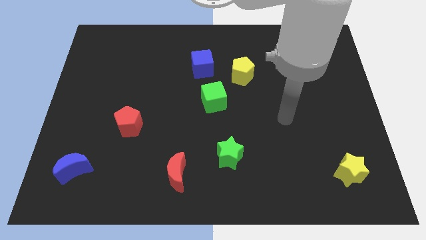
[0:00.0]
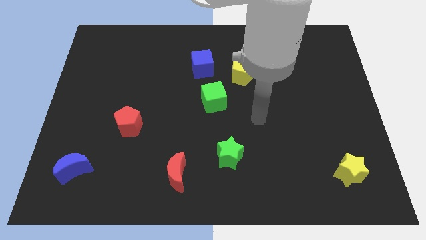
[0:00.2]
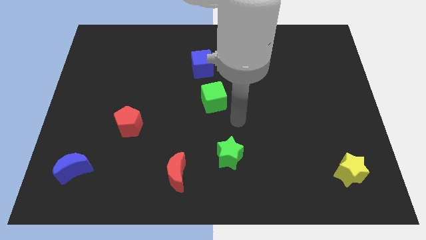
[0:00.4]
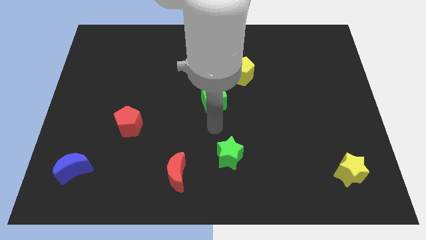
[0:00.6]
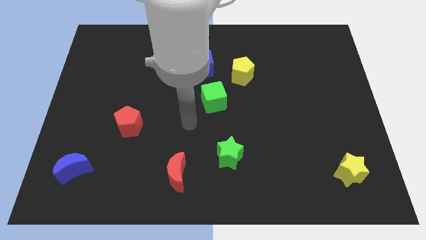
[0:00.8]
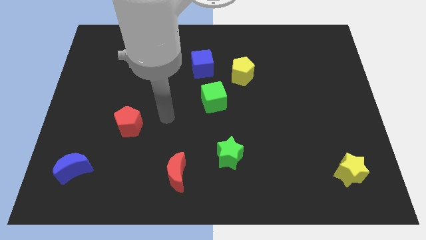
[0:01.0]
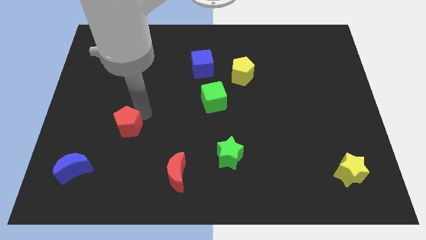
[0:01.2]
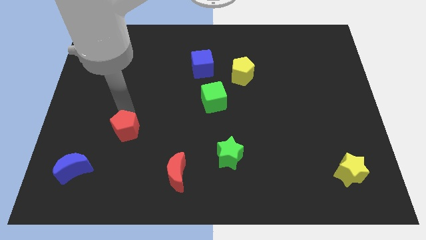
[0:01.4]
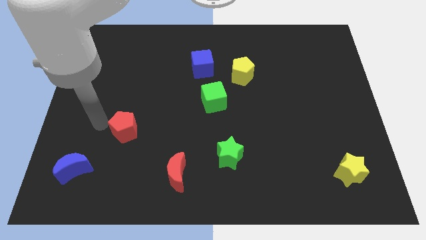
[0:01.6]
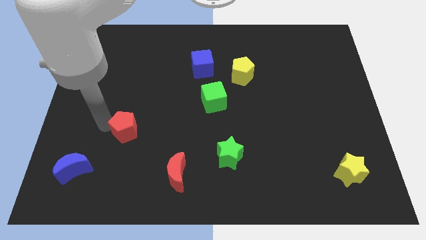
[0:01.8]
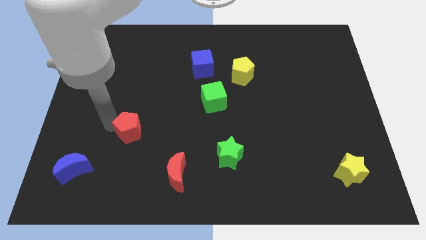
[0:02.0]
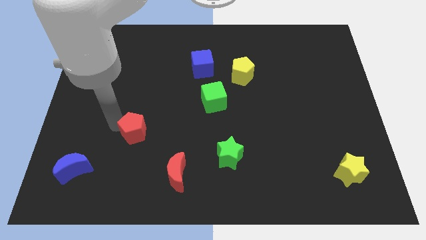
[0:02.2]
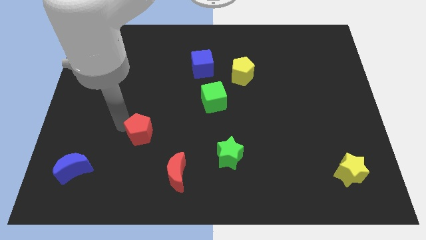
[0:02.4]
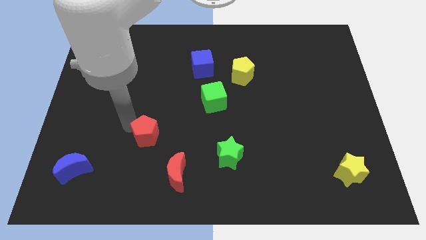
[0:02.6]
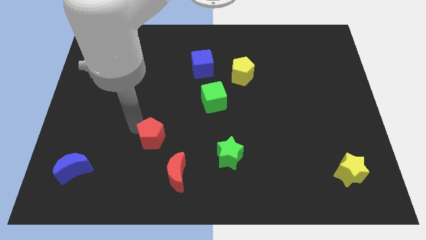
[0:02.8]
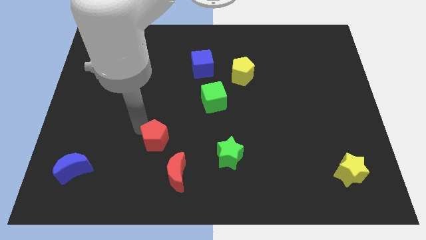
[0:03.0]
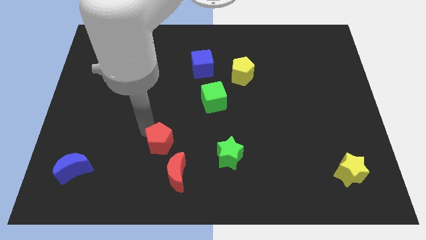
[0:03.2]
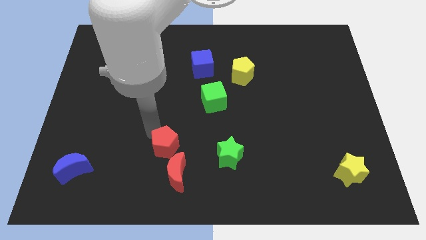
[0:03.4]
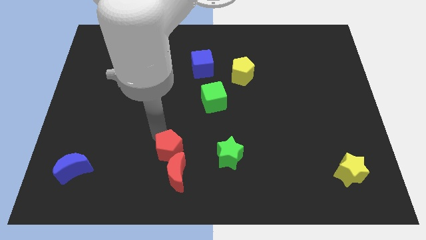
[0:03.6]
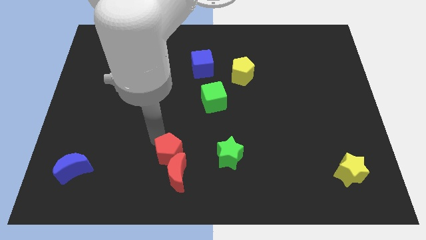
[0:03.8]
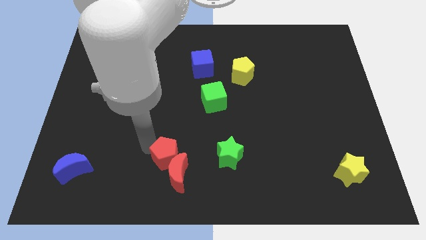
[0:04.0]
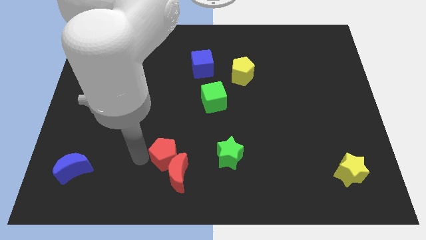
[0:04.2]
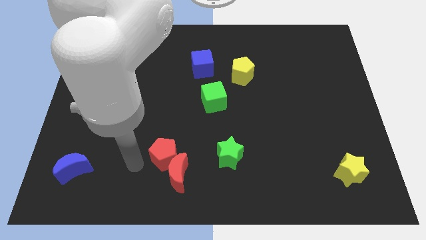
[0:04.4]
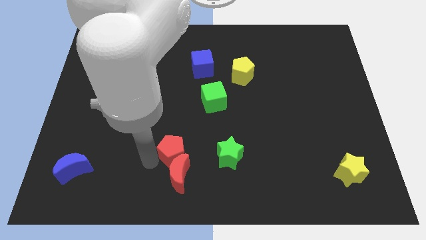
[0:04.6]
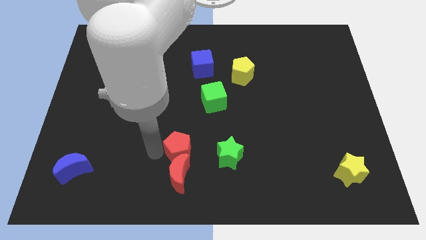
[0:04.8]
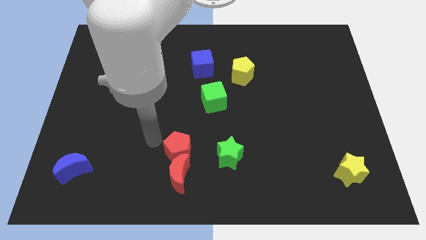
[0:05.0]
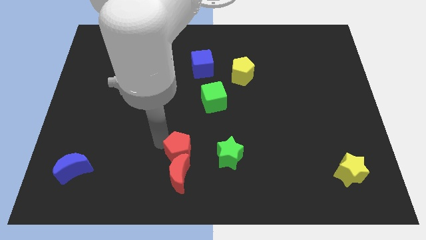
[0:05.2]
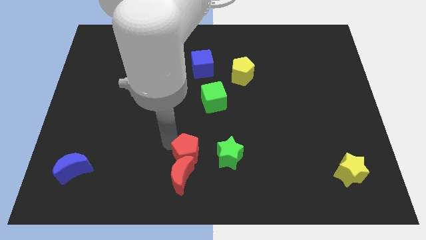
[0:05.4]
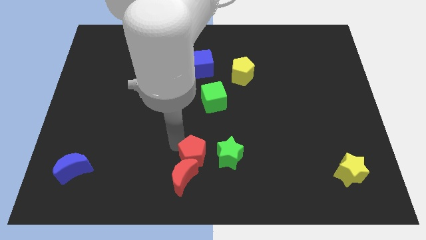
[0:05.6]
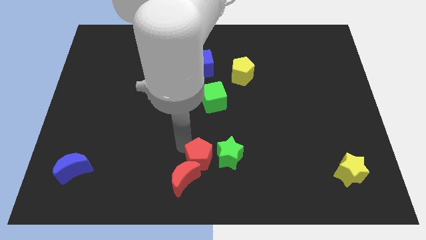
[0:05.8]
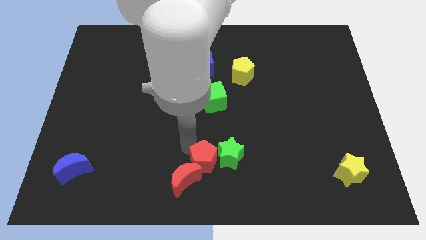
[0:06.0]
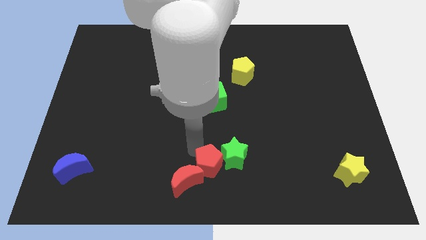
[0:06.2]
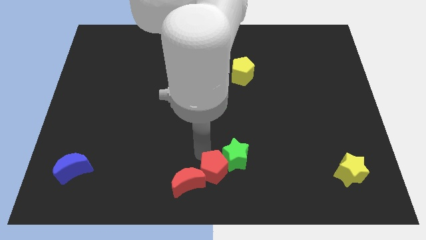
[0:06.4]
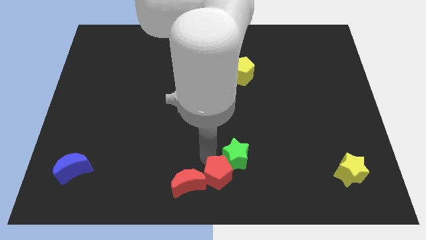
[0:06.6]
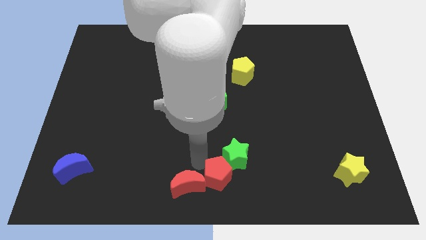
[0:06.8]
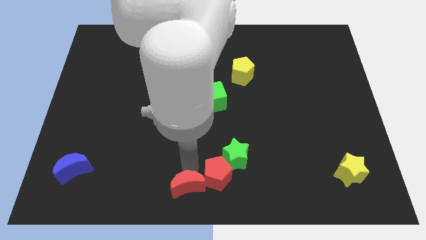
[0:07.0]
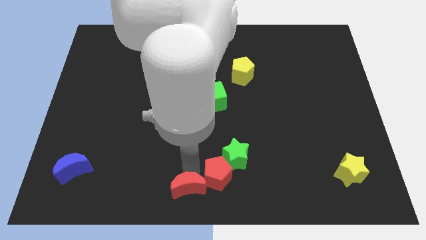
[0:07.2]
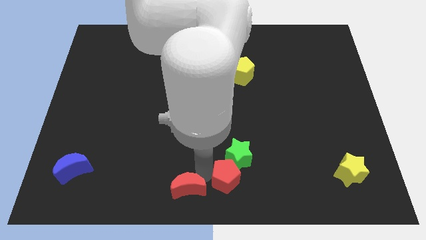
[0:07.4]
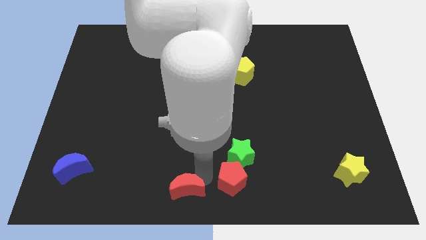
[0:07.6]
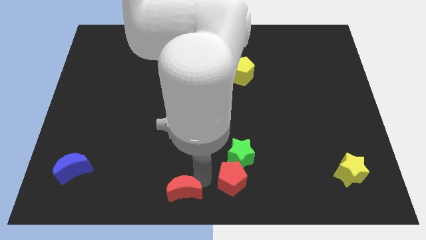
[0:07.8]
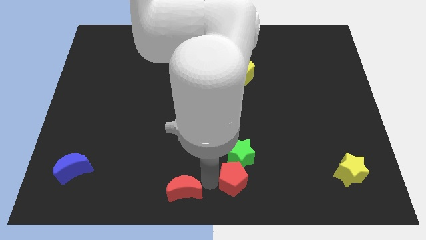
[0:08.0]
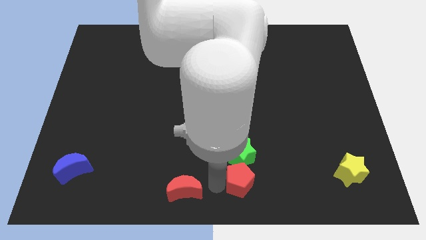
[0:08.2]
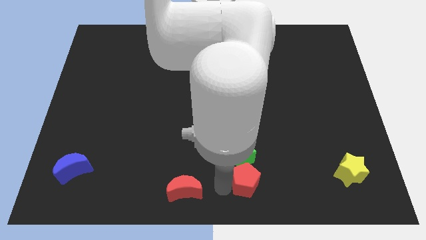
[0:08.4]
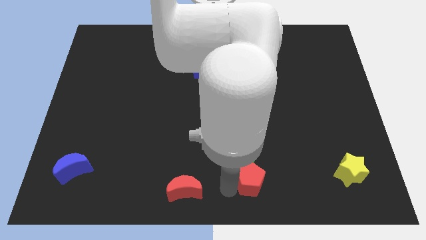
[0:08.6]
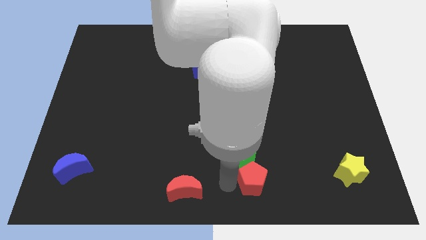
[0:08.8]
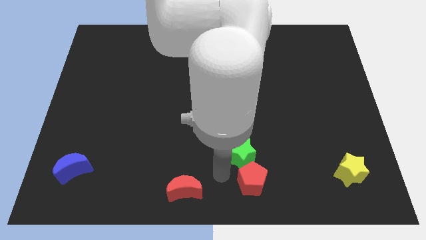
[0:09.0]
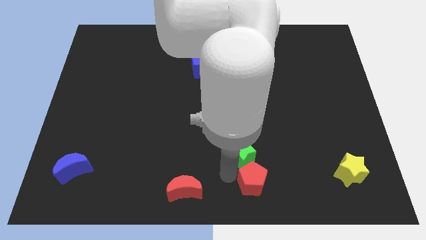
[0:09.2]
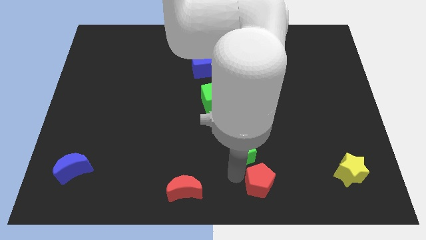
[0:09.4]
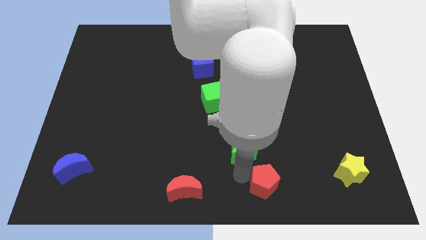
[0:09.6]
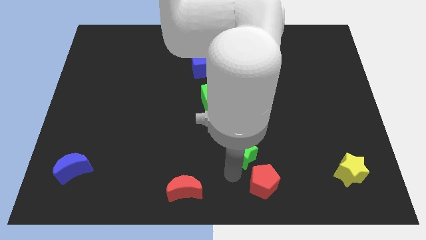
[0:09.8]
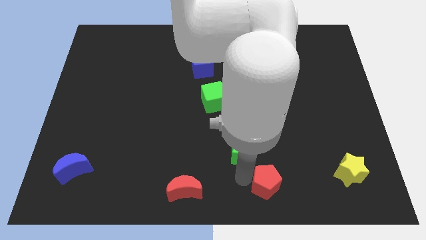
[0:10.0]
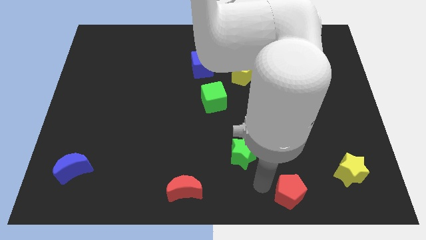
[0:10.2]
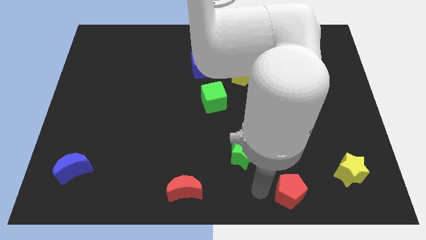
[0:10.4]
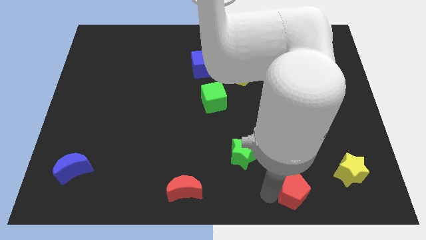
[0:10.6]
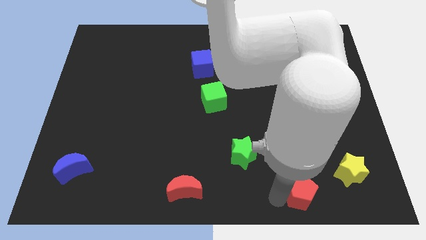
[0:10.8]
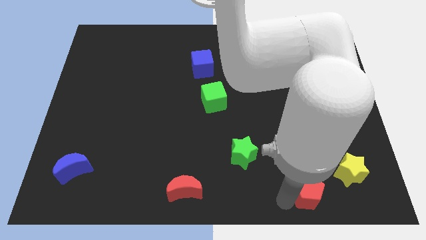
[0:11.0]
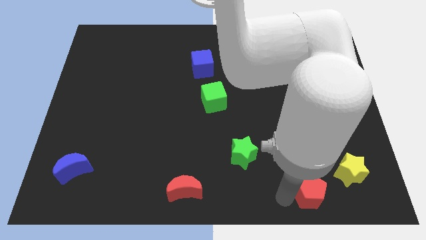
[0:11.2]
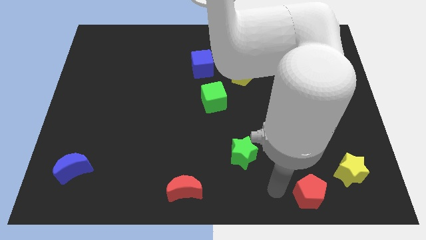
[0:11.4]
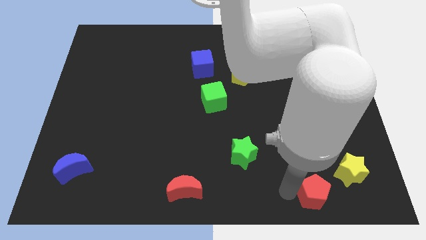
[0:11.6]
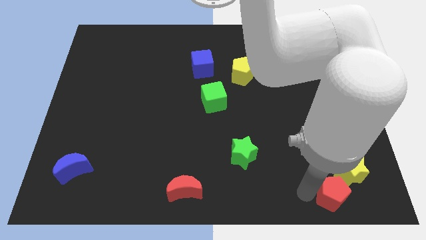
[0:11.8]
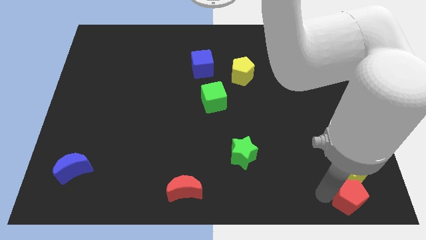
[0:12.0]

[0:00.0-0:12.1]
put the red pentagon to the lower right corner

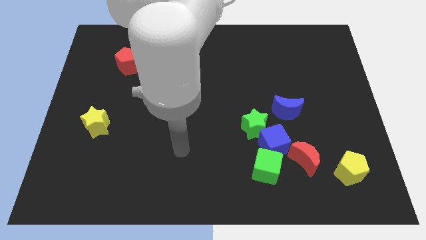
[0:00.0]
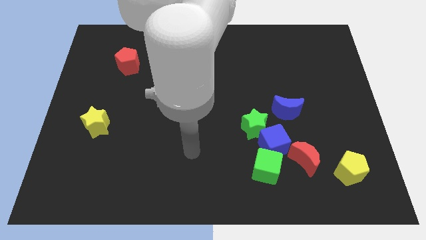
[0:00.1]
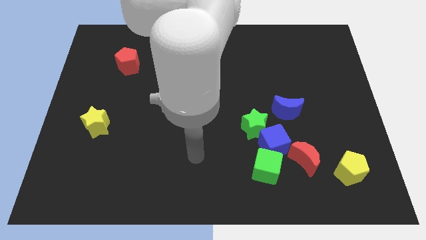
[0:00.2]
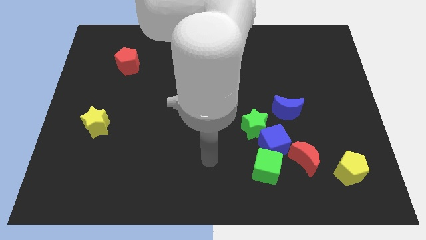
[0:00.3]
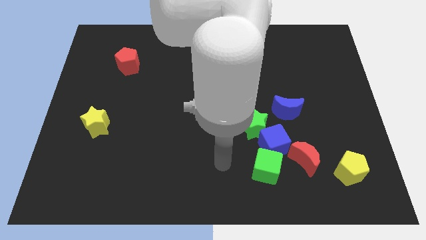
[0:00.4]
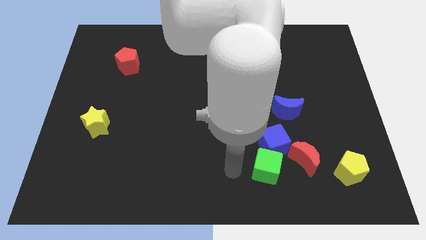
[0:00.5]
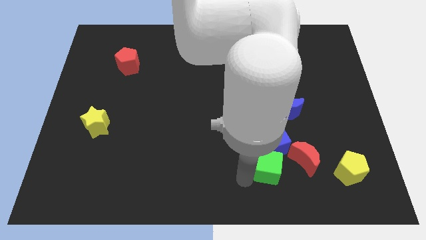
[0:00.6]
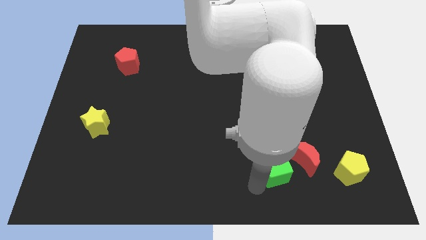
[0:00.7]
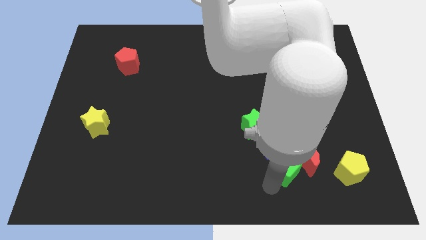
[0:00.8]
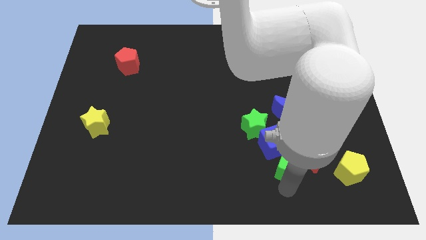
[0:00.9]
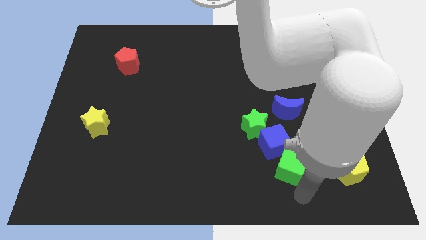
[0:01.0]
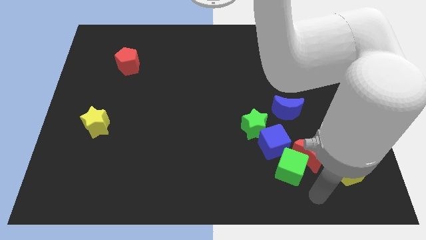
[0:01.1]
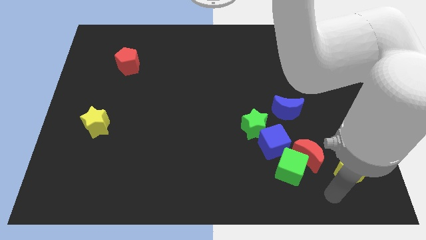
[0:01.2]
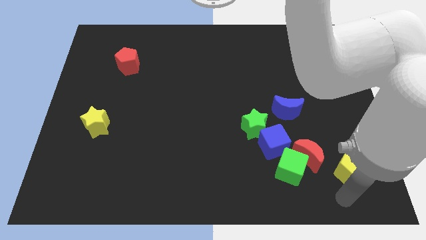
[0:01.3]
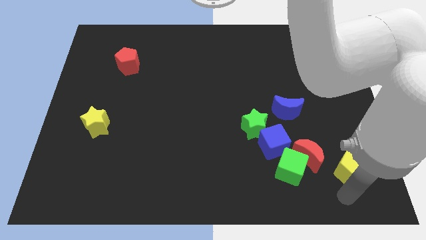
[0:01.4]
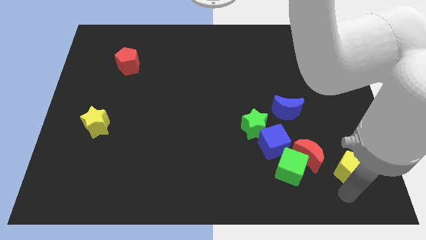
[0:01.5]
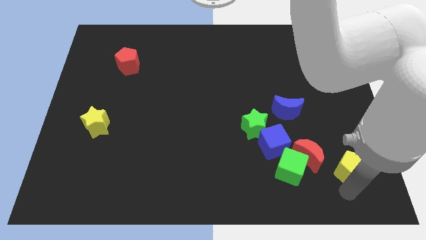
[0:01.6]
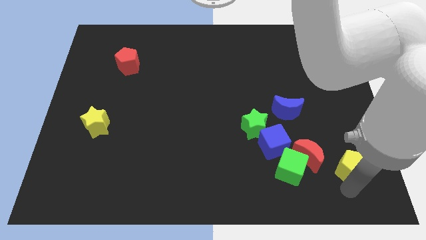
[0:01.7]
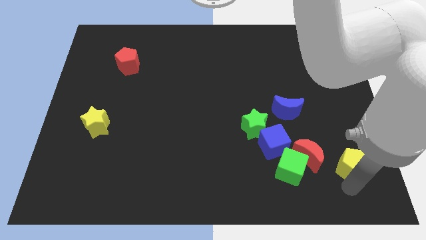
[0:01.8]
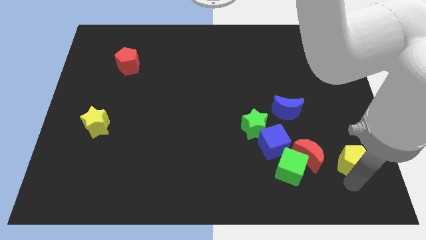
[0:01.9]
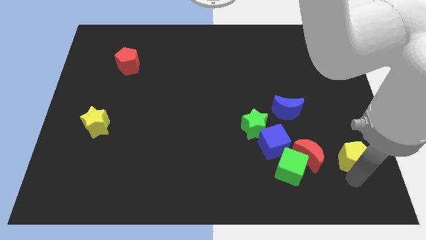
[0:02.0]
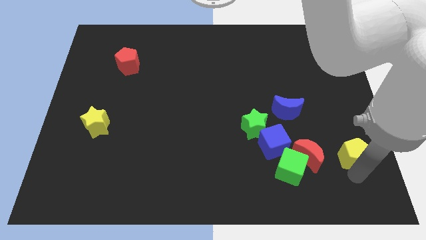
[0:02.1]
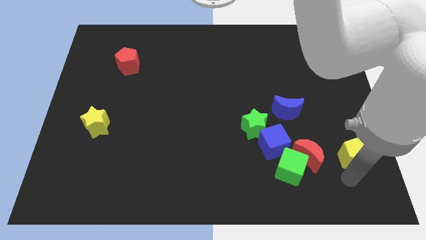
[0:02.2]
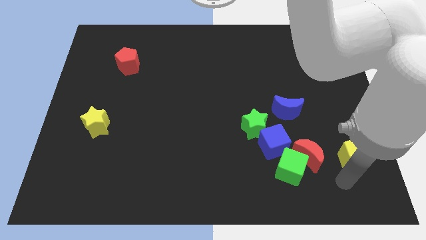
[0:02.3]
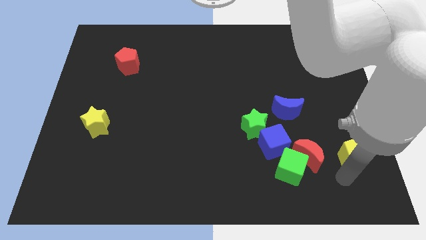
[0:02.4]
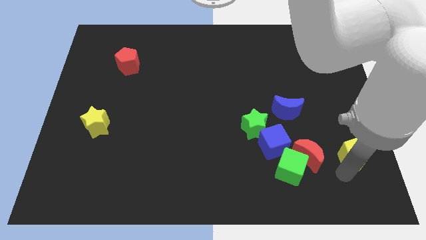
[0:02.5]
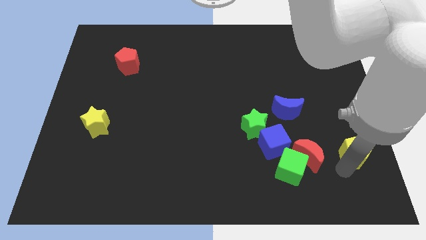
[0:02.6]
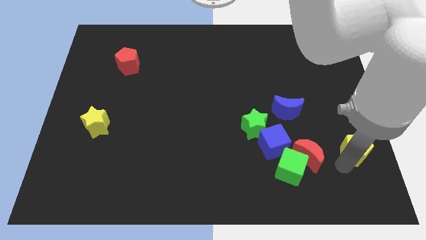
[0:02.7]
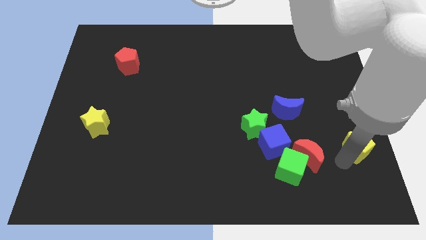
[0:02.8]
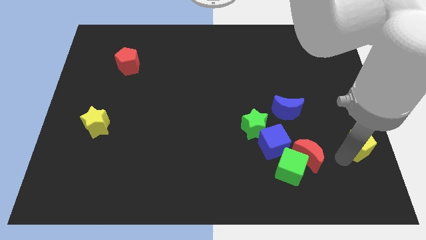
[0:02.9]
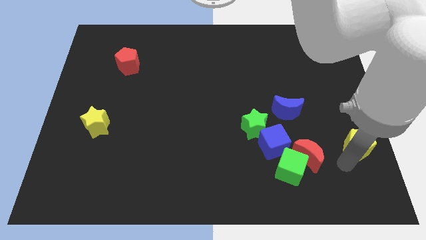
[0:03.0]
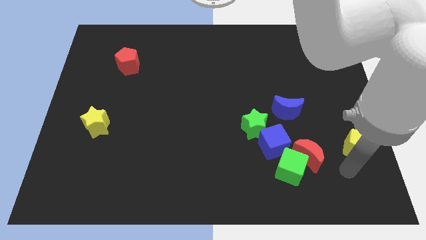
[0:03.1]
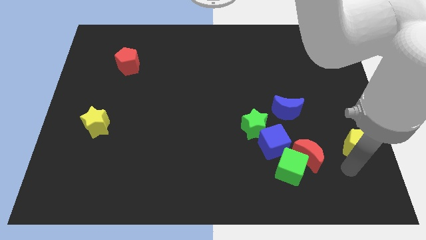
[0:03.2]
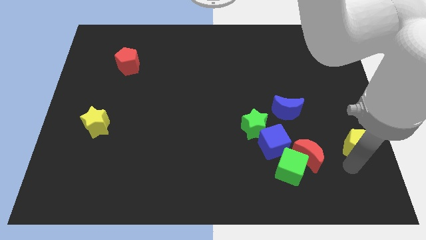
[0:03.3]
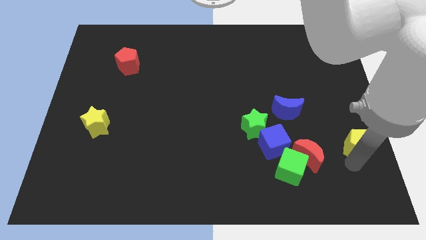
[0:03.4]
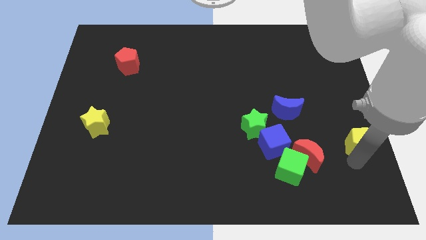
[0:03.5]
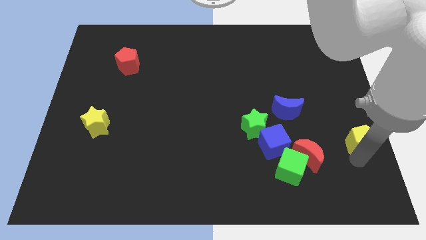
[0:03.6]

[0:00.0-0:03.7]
slide the yellow pentagon to the center right
